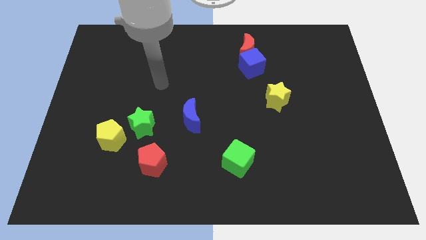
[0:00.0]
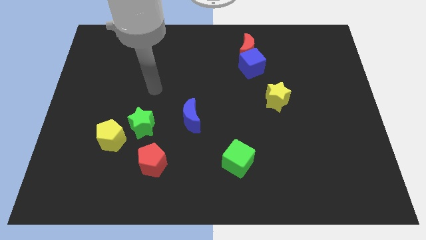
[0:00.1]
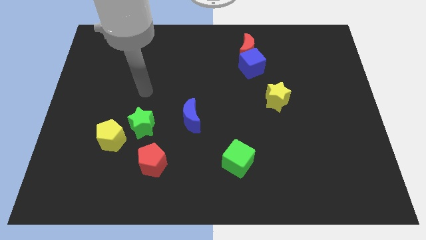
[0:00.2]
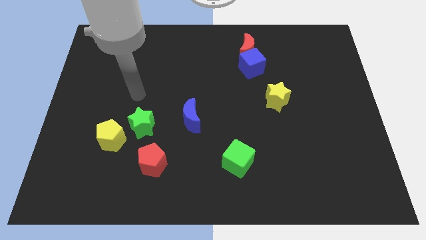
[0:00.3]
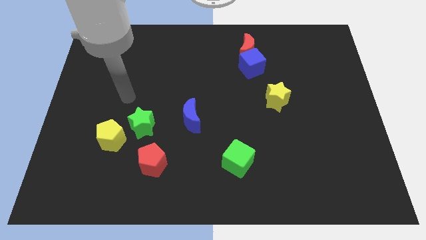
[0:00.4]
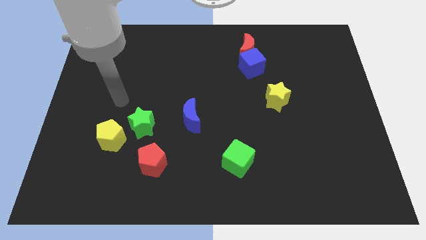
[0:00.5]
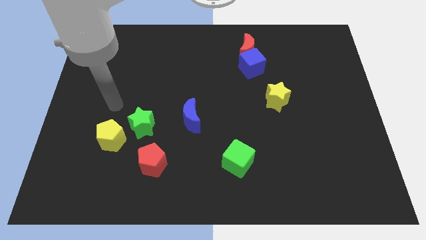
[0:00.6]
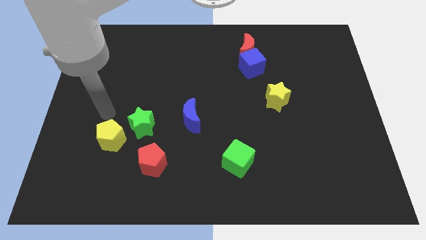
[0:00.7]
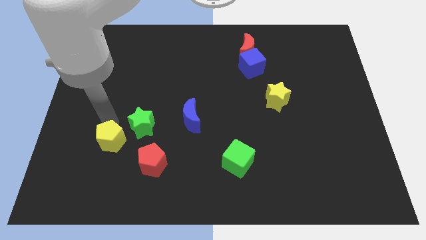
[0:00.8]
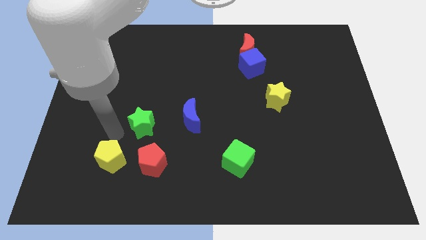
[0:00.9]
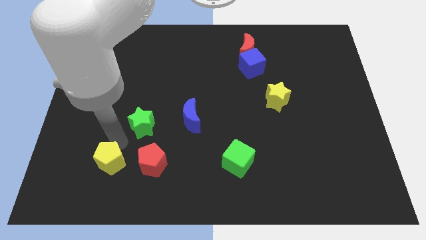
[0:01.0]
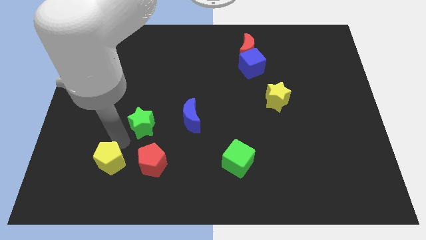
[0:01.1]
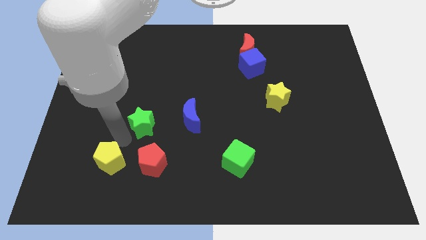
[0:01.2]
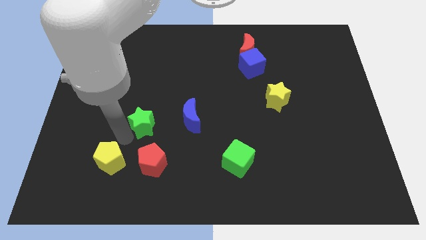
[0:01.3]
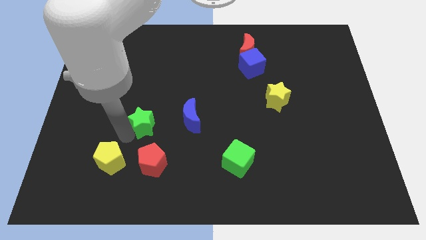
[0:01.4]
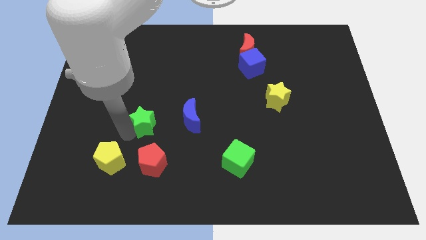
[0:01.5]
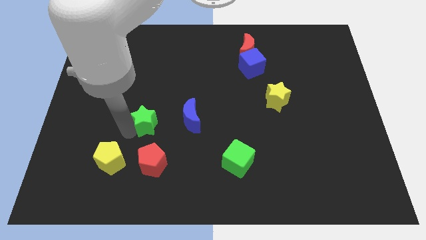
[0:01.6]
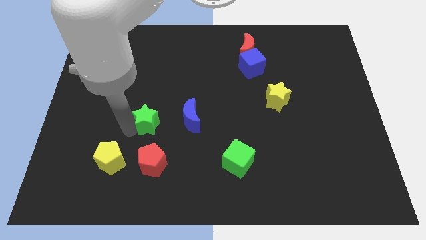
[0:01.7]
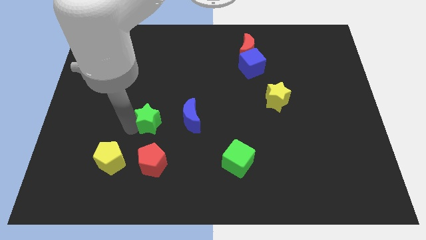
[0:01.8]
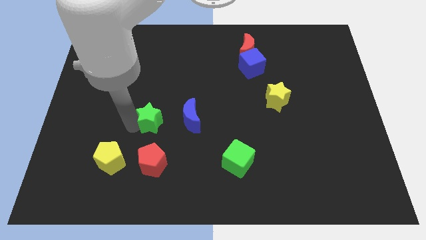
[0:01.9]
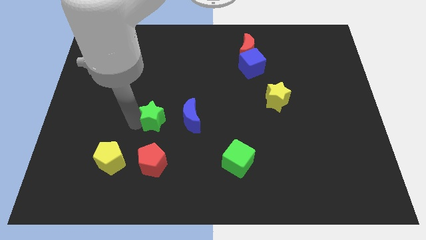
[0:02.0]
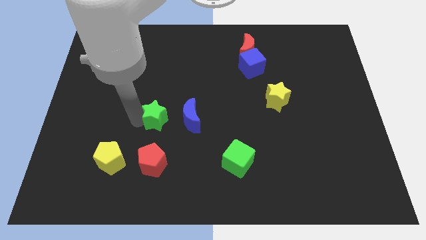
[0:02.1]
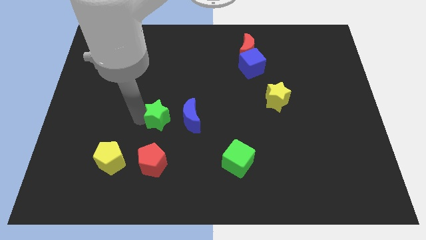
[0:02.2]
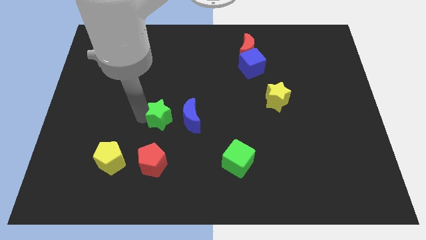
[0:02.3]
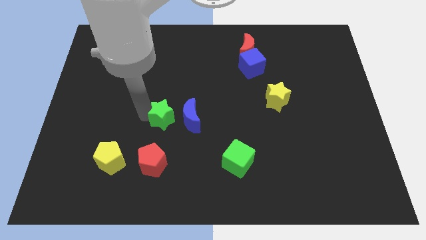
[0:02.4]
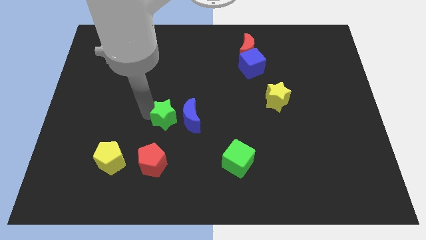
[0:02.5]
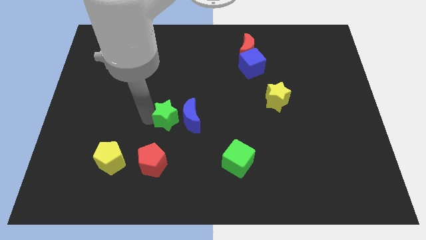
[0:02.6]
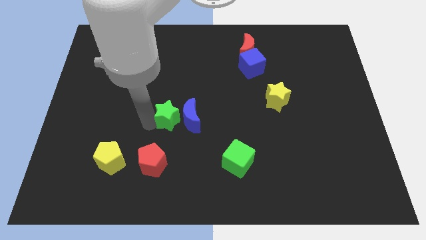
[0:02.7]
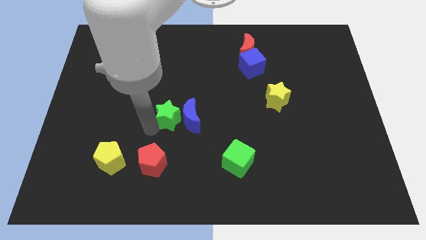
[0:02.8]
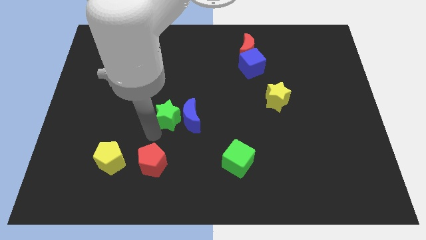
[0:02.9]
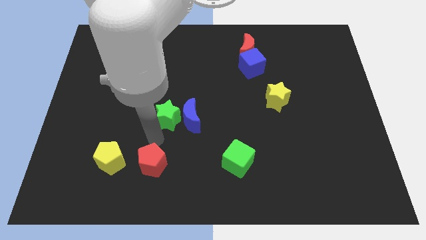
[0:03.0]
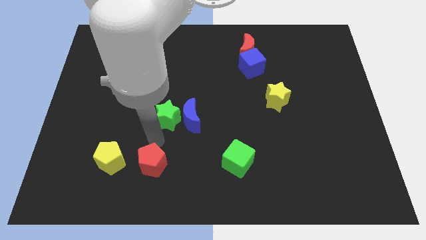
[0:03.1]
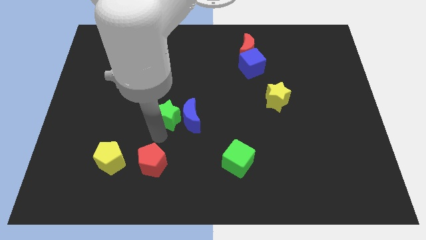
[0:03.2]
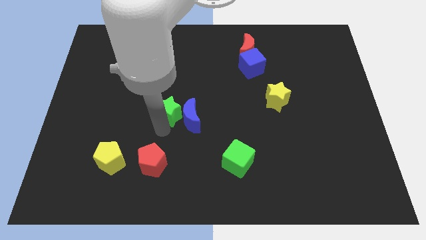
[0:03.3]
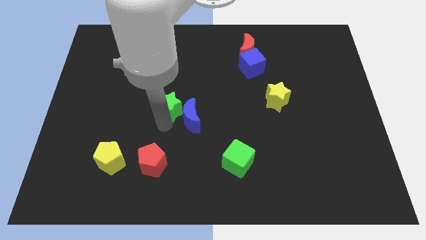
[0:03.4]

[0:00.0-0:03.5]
slightly slide the green star diagonally upwards and to the right

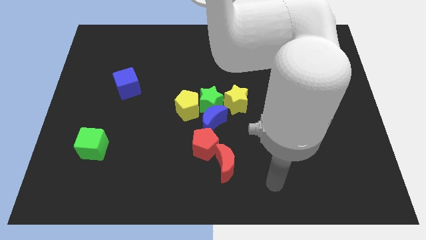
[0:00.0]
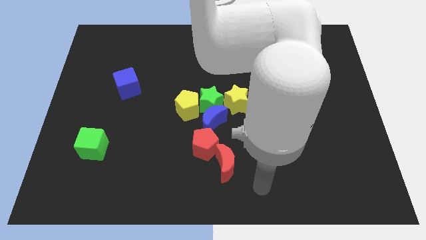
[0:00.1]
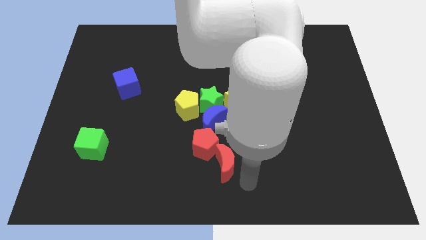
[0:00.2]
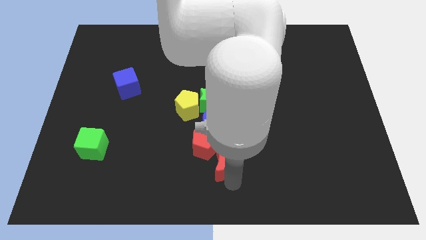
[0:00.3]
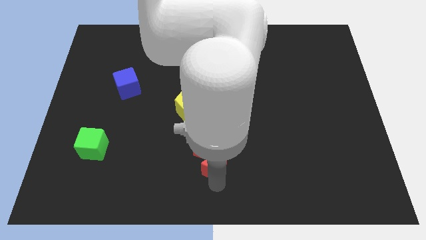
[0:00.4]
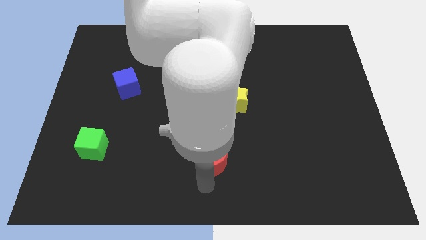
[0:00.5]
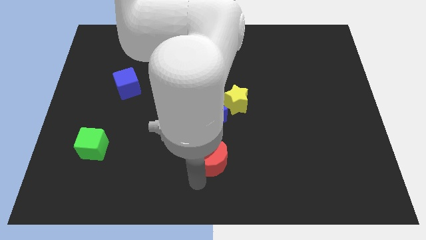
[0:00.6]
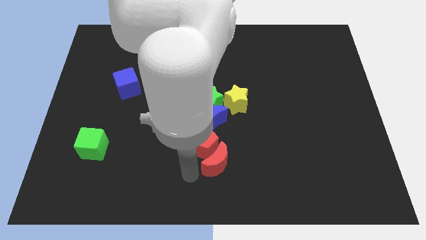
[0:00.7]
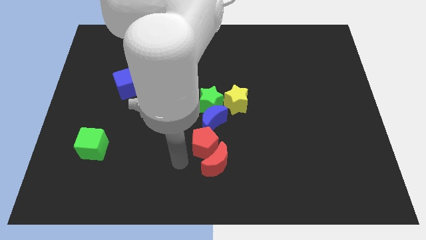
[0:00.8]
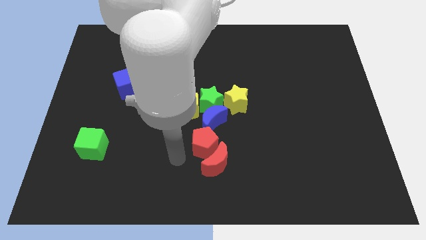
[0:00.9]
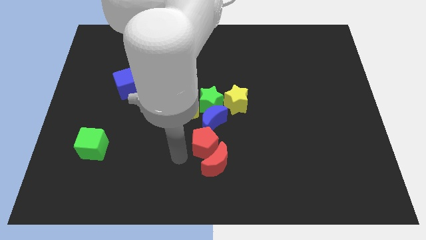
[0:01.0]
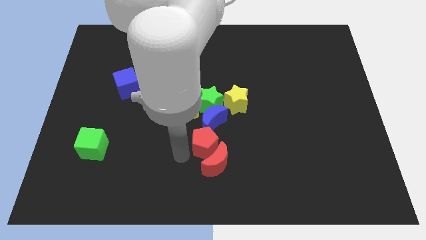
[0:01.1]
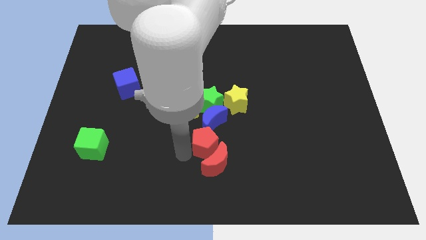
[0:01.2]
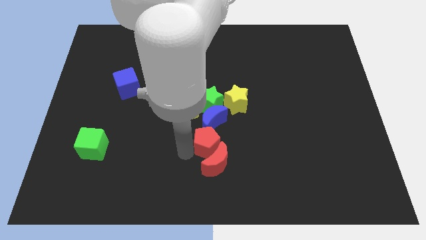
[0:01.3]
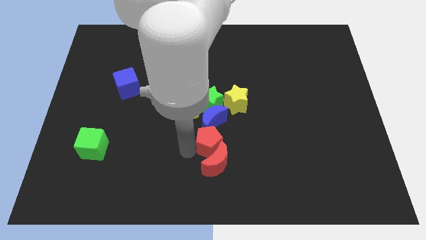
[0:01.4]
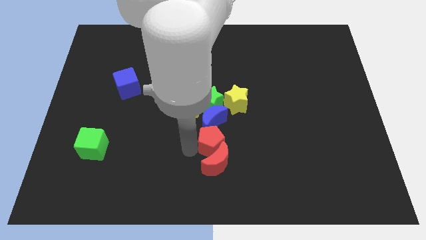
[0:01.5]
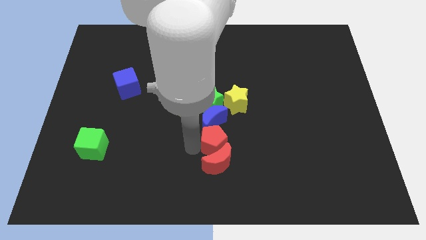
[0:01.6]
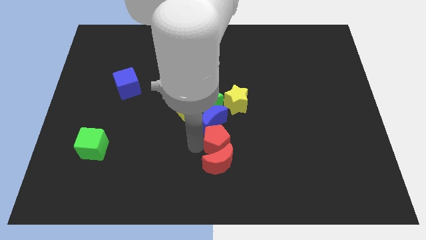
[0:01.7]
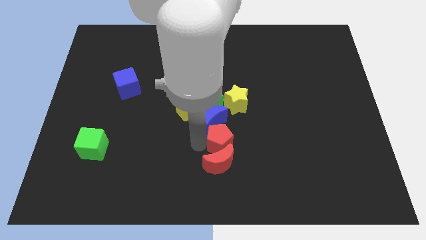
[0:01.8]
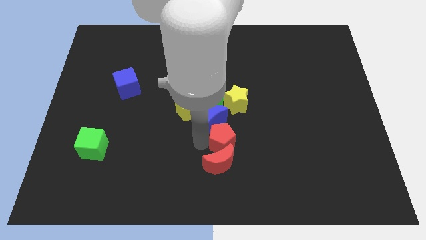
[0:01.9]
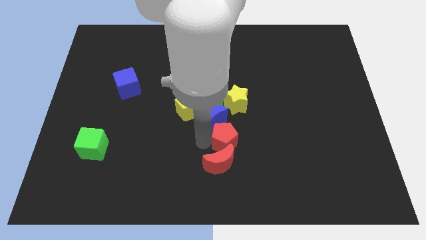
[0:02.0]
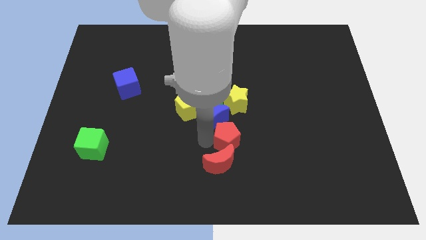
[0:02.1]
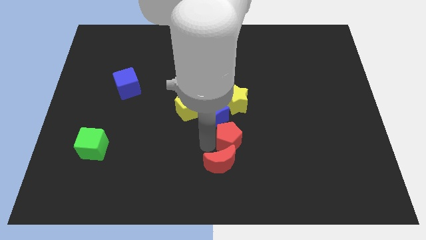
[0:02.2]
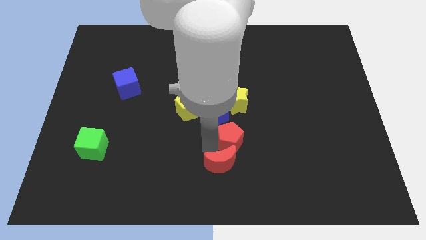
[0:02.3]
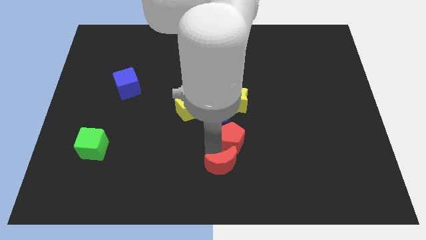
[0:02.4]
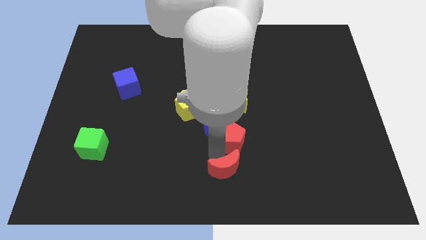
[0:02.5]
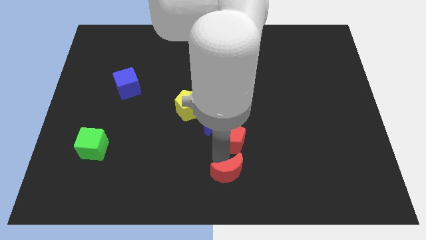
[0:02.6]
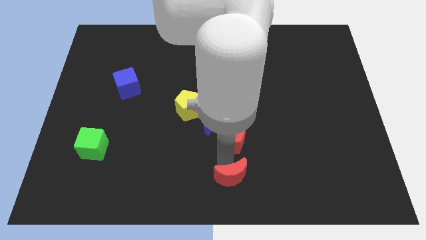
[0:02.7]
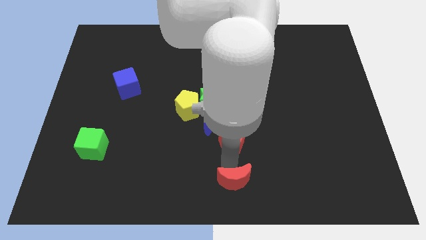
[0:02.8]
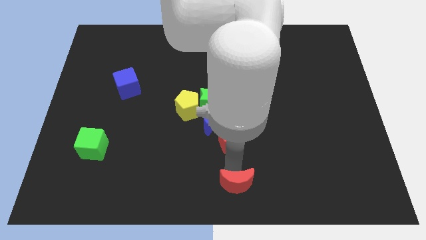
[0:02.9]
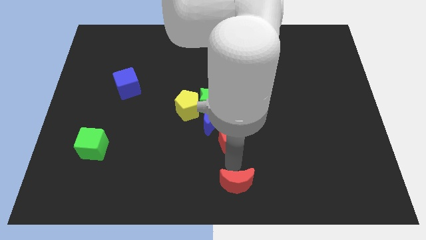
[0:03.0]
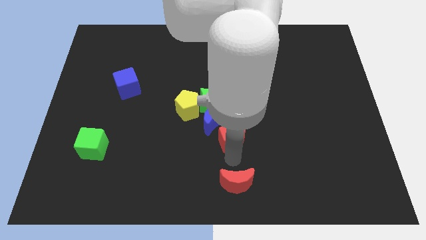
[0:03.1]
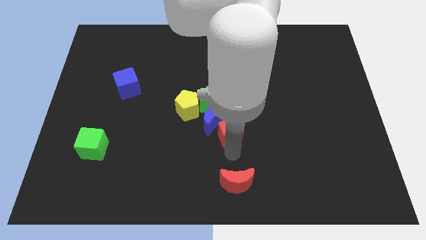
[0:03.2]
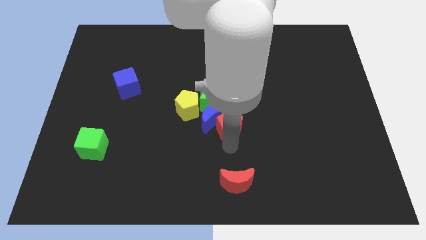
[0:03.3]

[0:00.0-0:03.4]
slide the red pentagon a little bit diagonally upwards and right

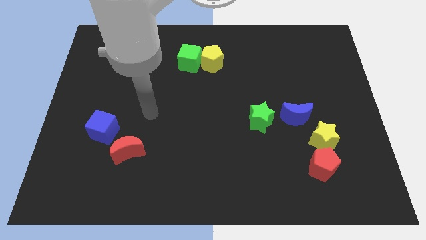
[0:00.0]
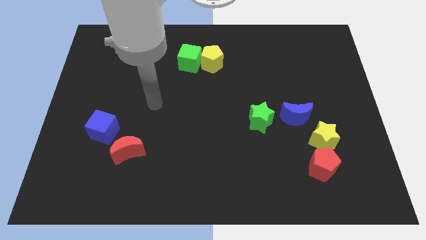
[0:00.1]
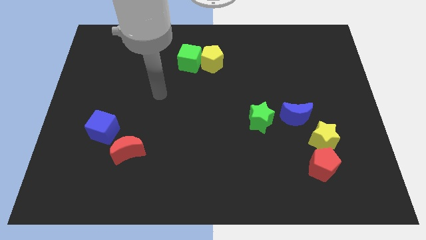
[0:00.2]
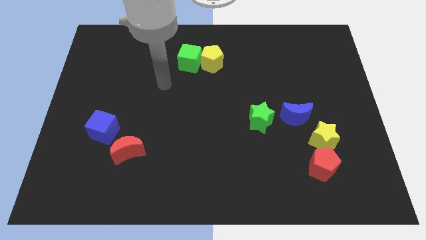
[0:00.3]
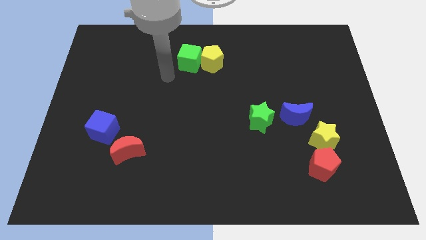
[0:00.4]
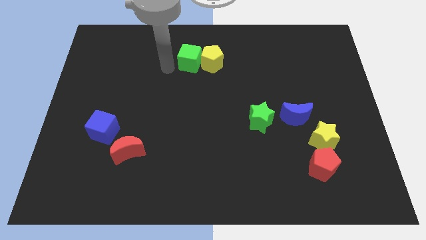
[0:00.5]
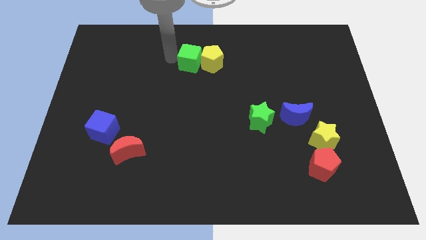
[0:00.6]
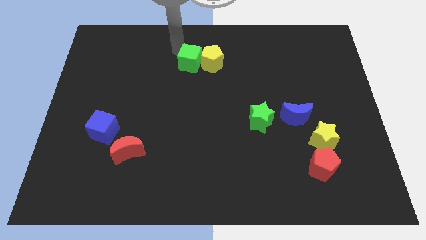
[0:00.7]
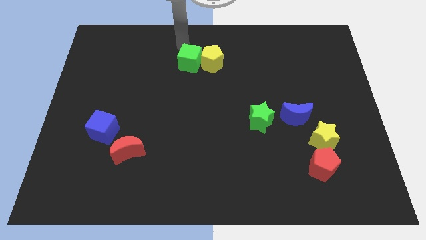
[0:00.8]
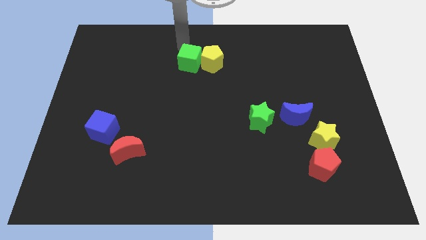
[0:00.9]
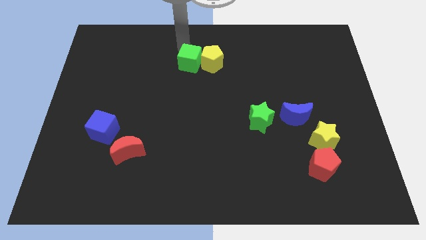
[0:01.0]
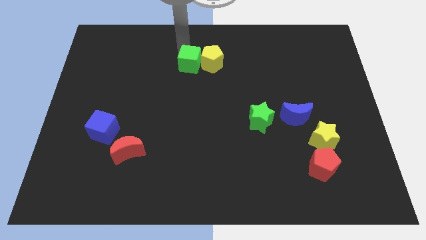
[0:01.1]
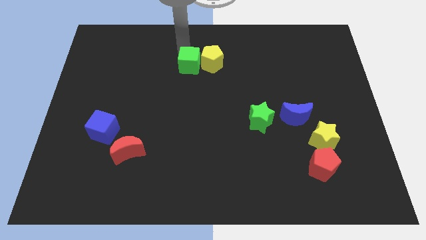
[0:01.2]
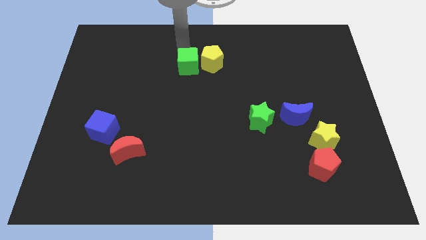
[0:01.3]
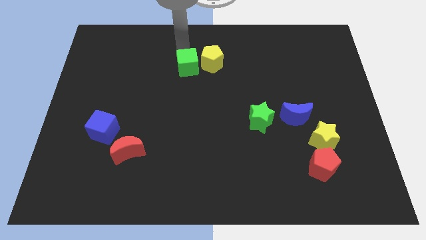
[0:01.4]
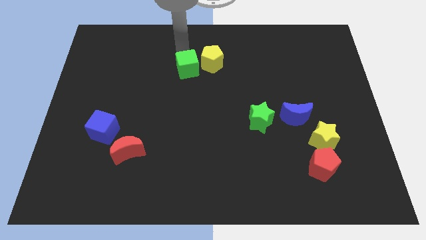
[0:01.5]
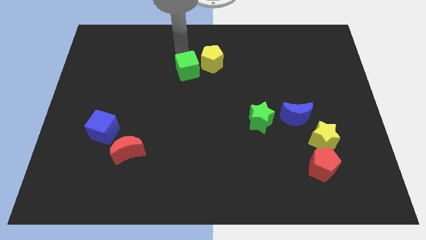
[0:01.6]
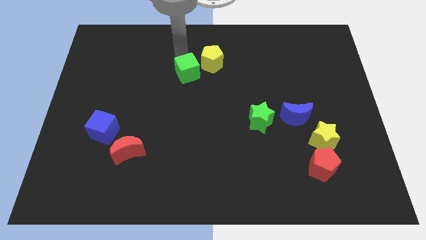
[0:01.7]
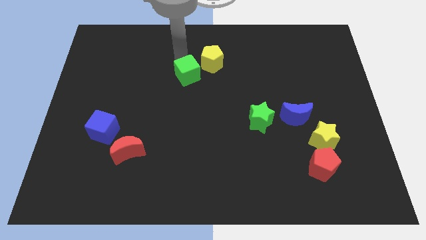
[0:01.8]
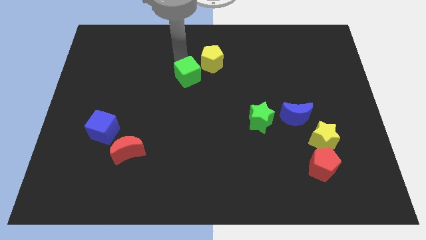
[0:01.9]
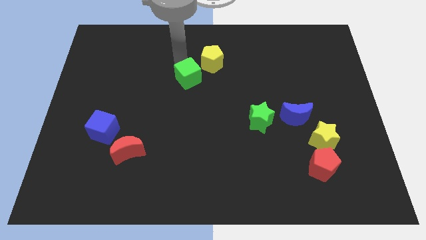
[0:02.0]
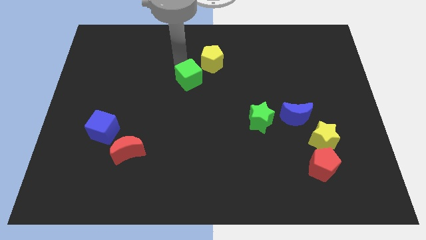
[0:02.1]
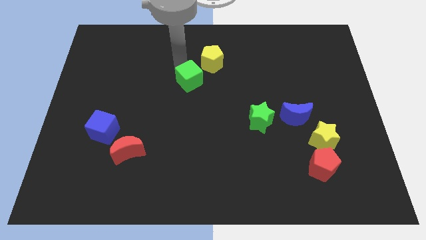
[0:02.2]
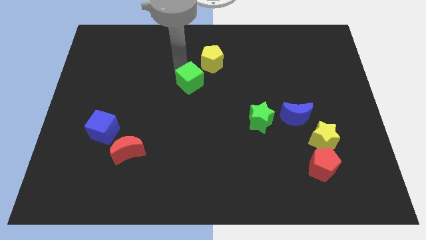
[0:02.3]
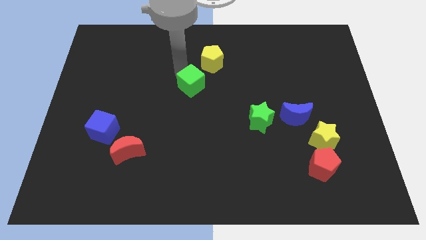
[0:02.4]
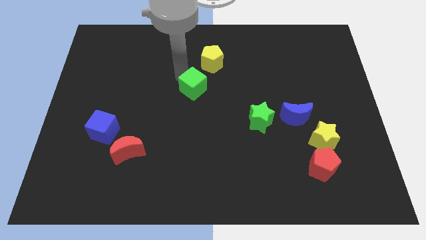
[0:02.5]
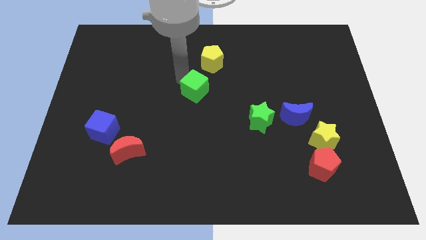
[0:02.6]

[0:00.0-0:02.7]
slide the green cube slightly down and then to the right
